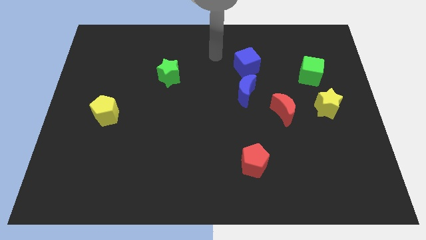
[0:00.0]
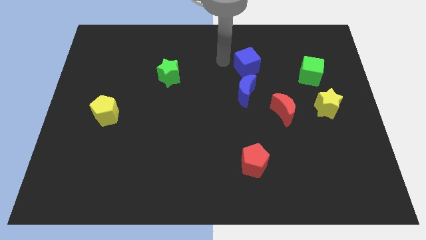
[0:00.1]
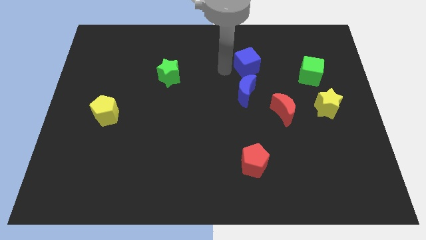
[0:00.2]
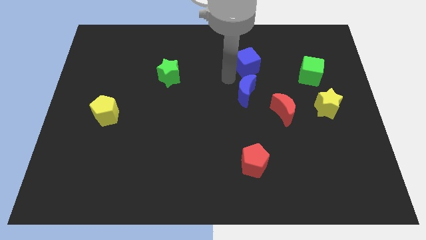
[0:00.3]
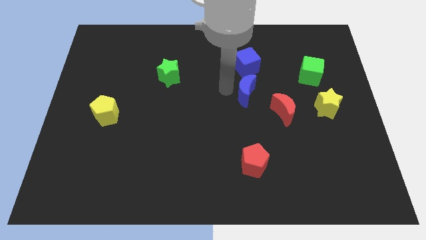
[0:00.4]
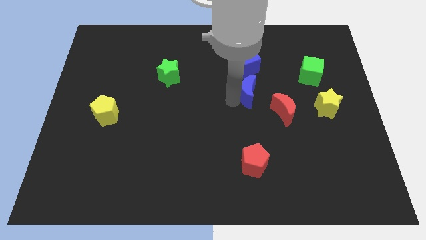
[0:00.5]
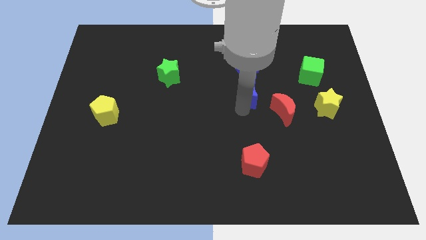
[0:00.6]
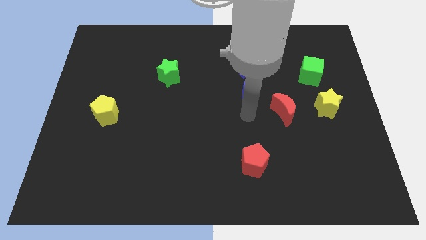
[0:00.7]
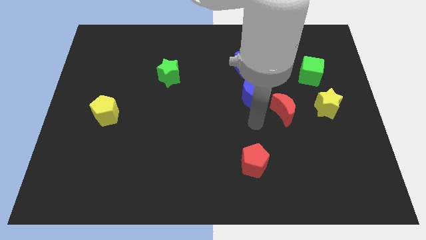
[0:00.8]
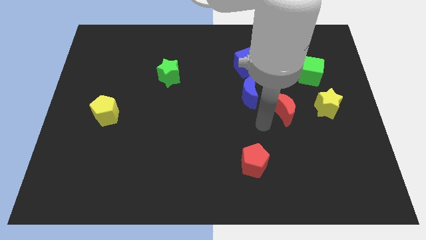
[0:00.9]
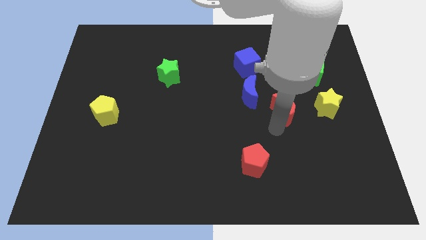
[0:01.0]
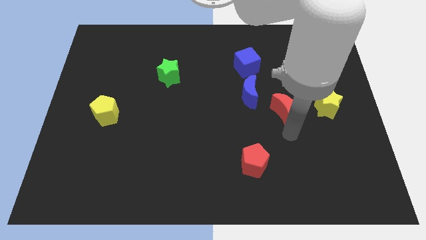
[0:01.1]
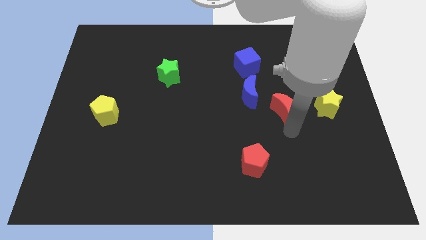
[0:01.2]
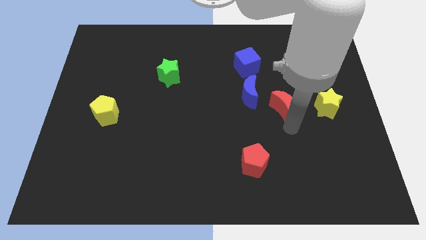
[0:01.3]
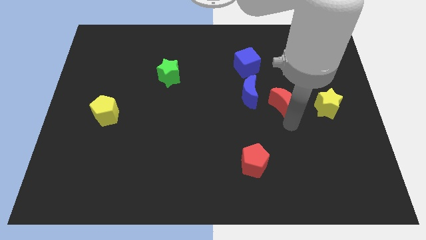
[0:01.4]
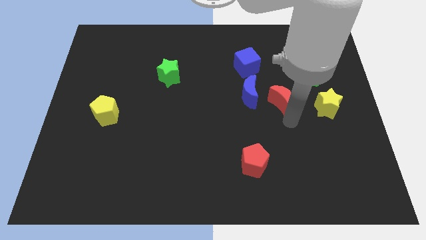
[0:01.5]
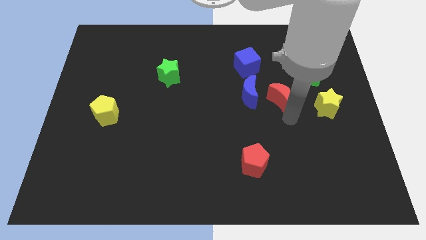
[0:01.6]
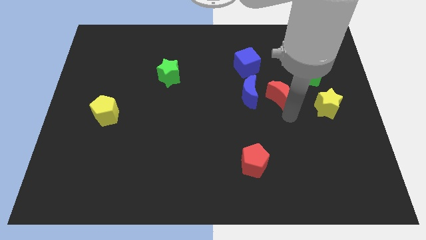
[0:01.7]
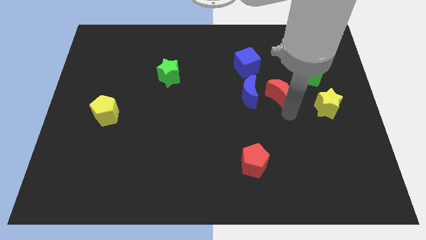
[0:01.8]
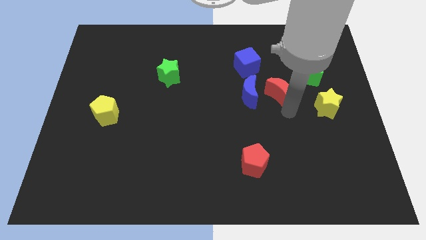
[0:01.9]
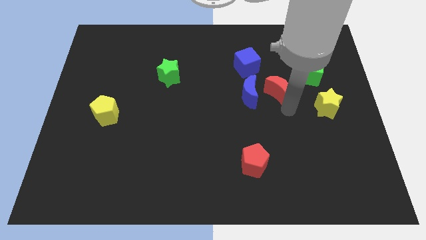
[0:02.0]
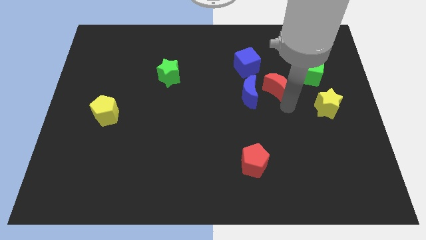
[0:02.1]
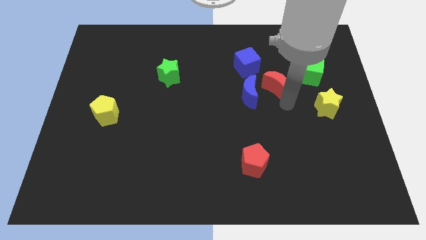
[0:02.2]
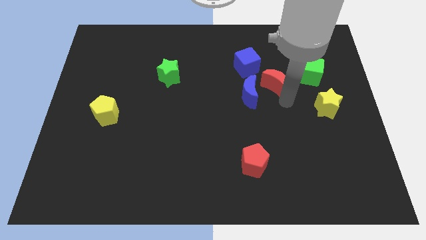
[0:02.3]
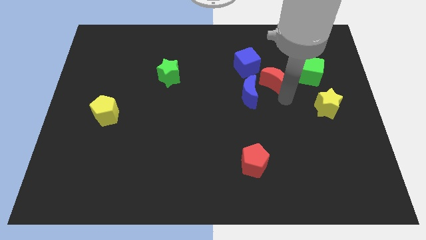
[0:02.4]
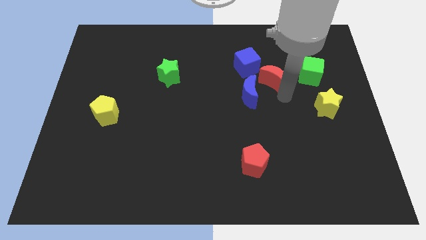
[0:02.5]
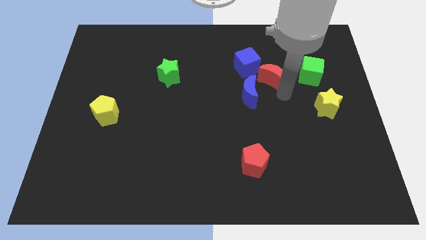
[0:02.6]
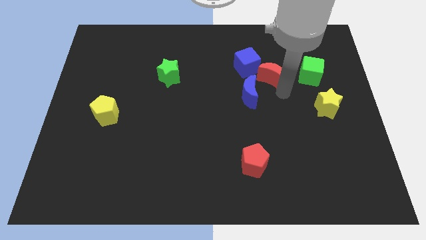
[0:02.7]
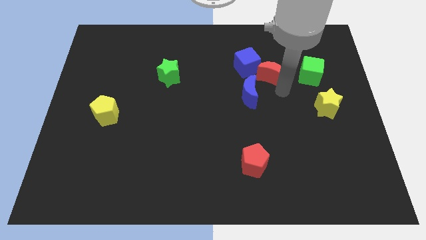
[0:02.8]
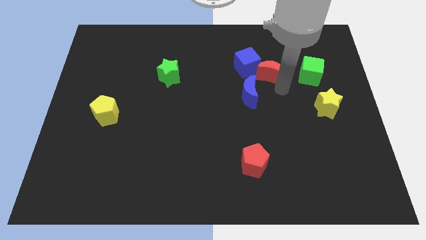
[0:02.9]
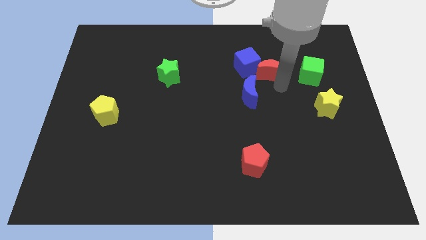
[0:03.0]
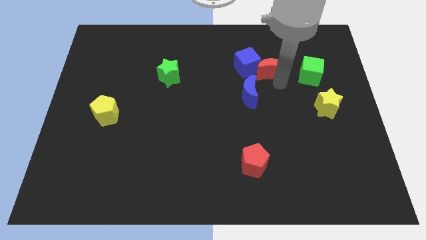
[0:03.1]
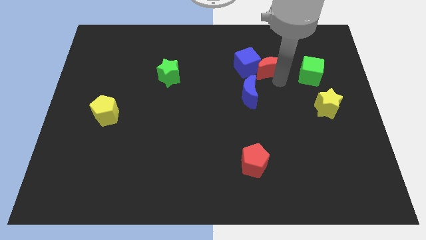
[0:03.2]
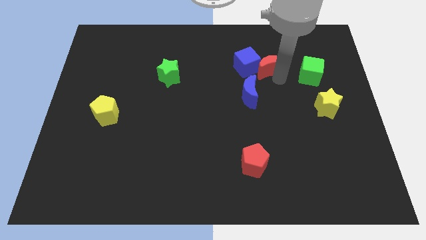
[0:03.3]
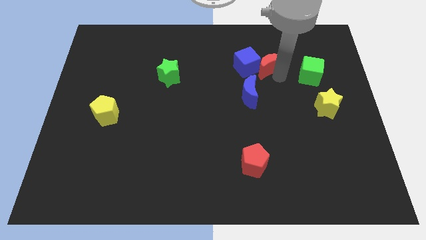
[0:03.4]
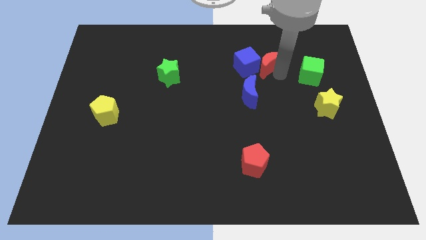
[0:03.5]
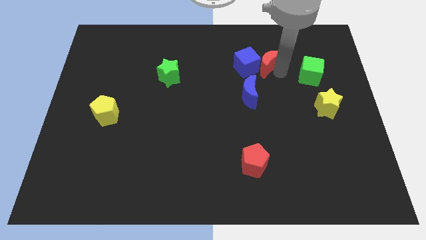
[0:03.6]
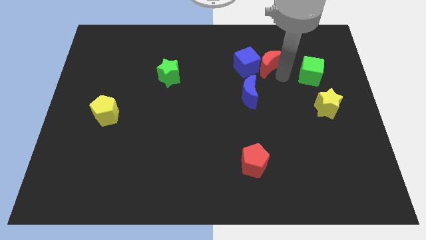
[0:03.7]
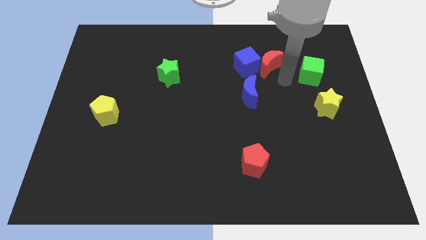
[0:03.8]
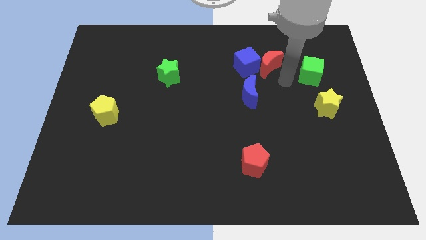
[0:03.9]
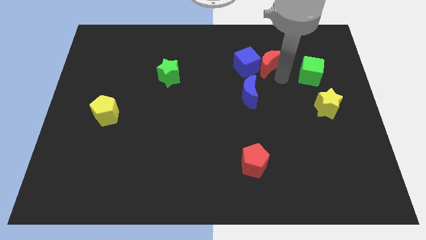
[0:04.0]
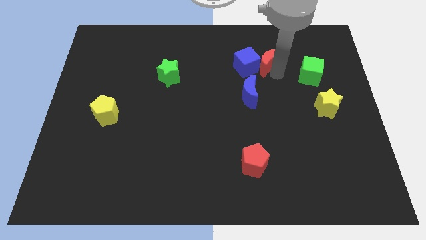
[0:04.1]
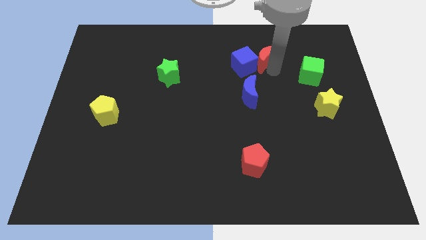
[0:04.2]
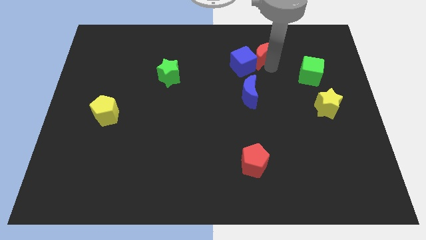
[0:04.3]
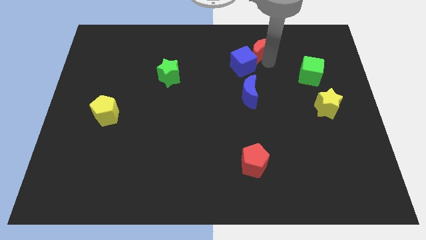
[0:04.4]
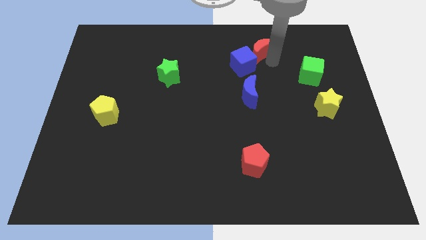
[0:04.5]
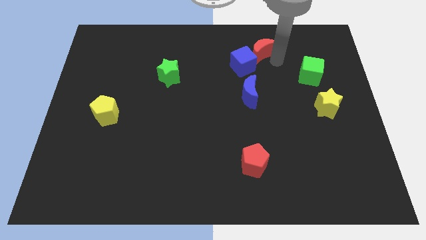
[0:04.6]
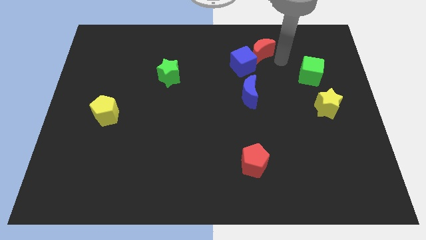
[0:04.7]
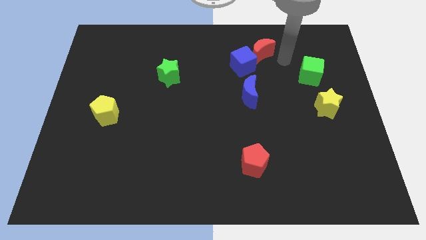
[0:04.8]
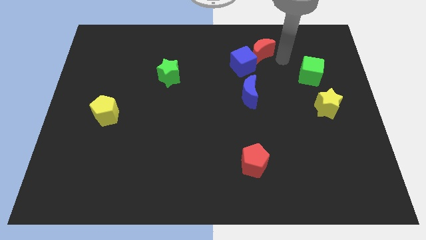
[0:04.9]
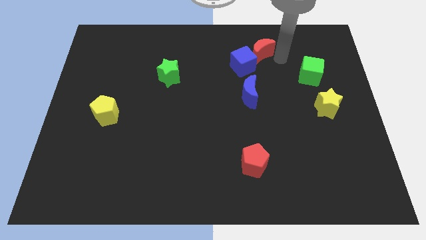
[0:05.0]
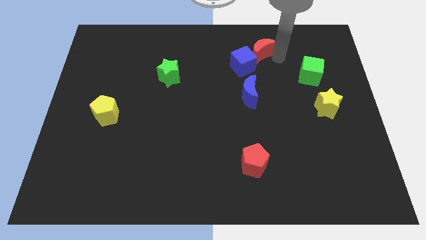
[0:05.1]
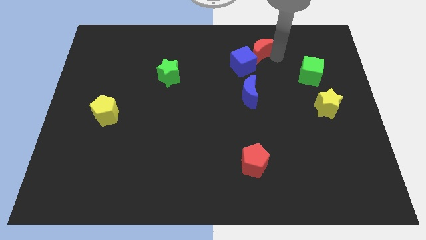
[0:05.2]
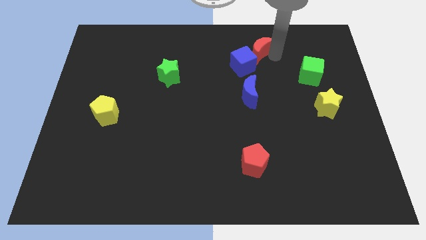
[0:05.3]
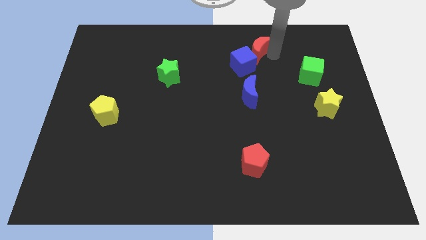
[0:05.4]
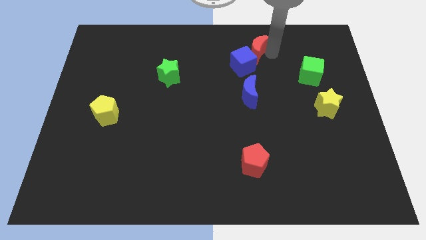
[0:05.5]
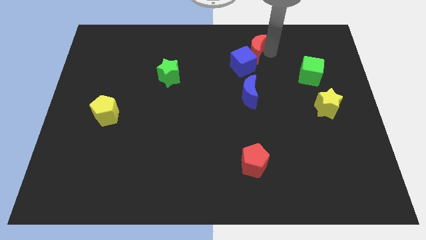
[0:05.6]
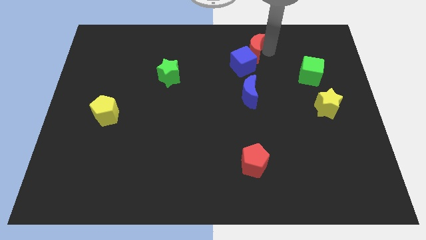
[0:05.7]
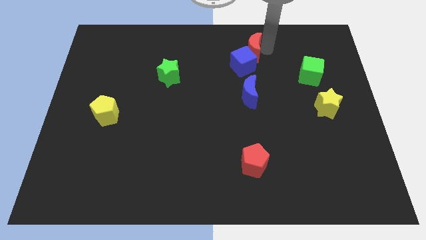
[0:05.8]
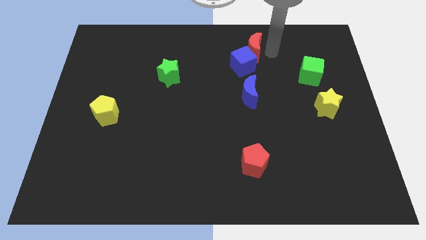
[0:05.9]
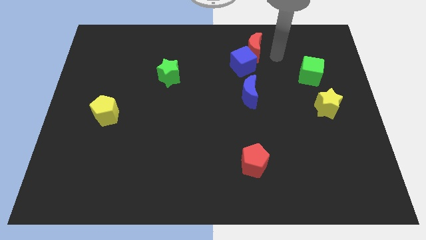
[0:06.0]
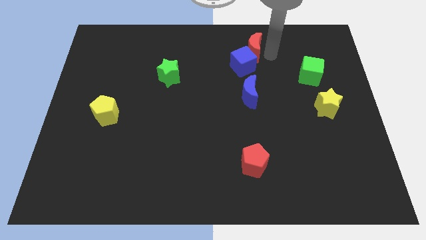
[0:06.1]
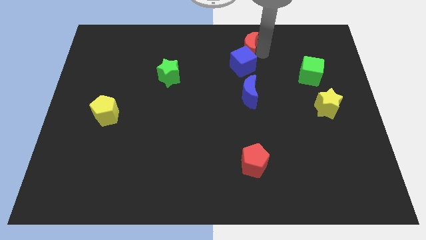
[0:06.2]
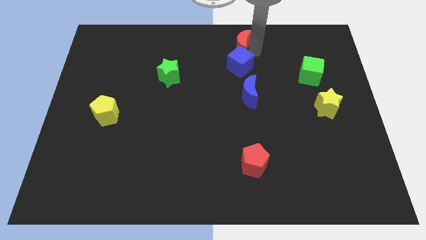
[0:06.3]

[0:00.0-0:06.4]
put the red moon to the top side
